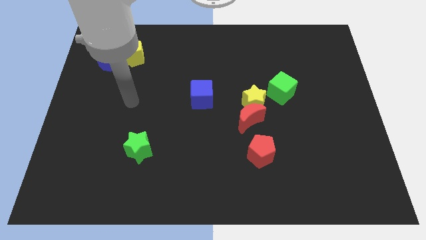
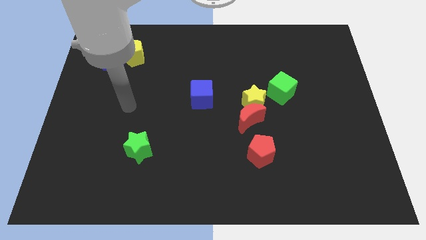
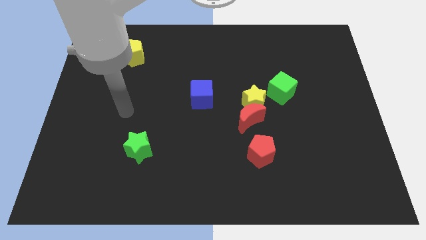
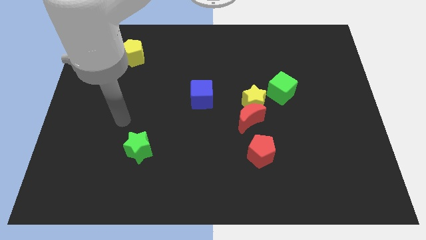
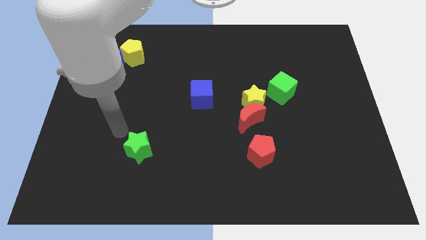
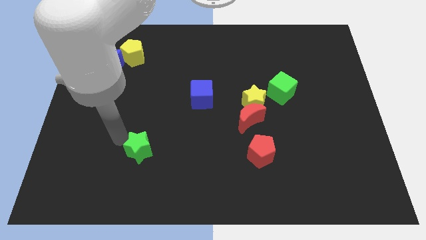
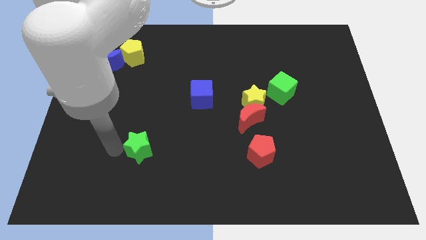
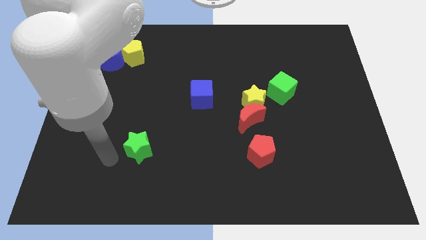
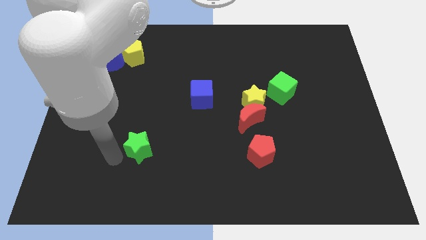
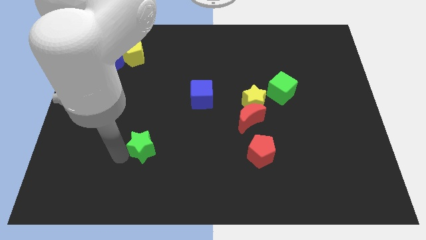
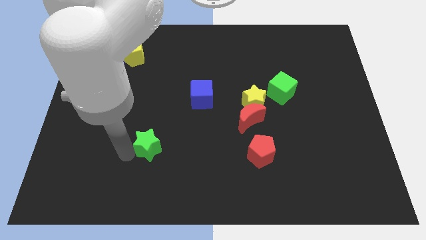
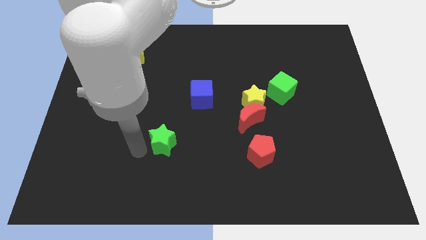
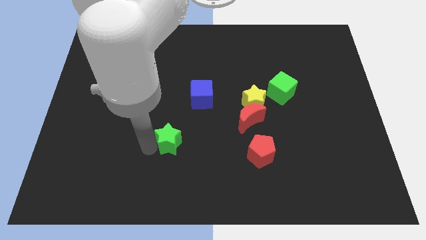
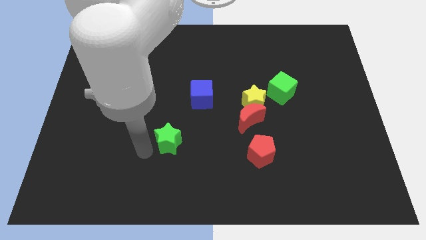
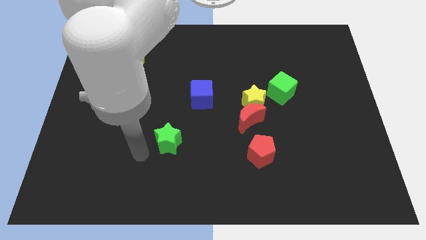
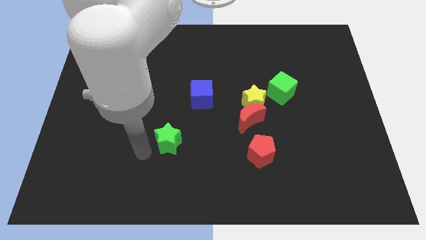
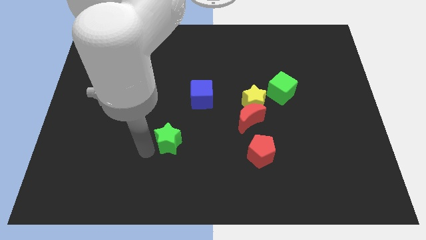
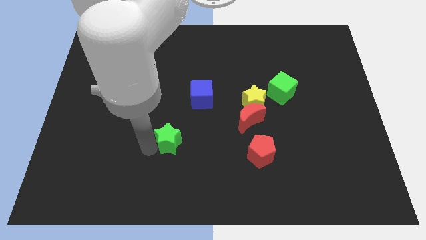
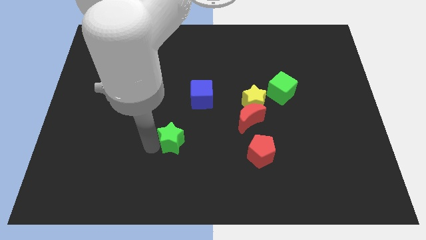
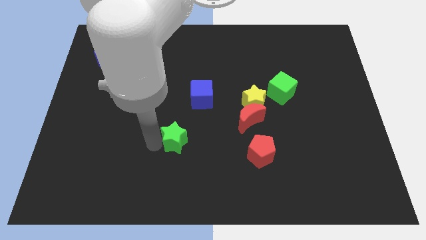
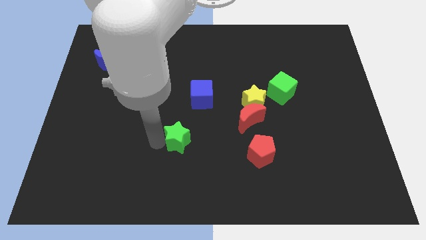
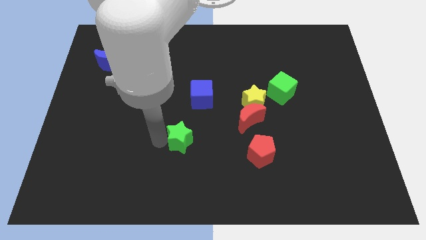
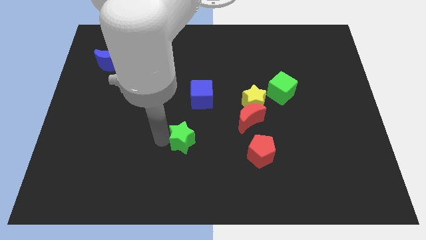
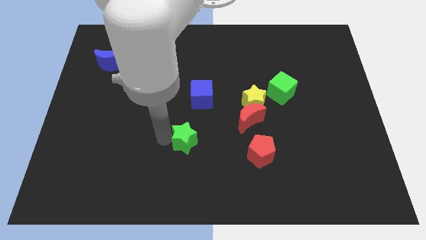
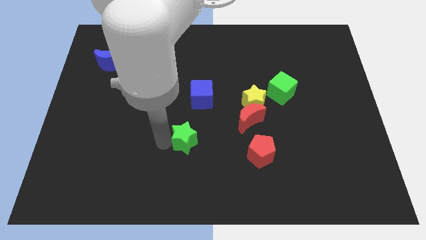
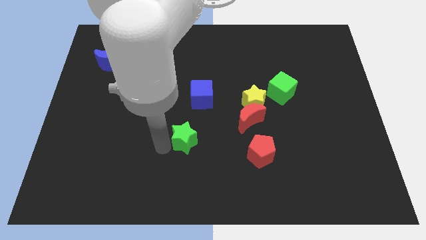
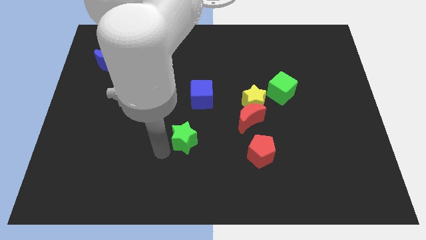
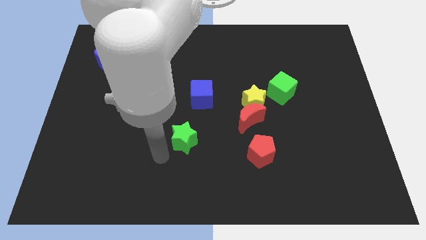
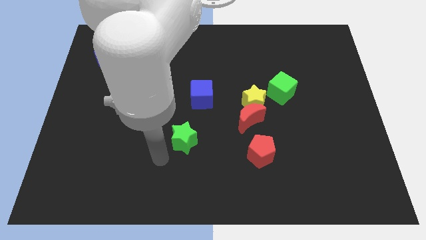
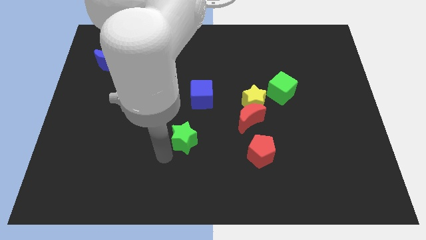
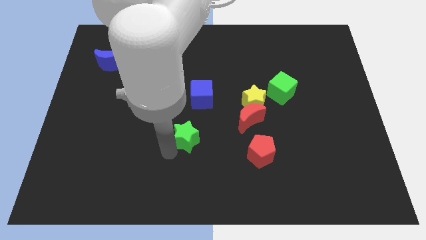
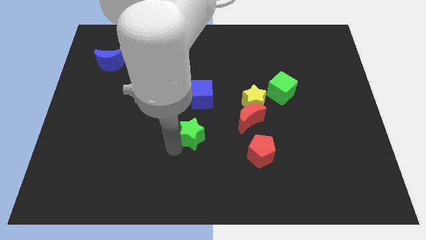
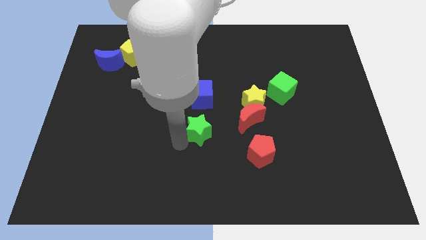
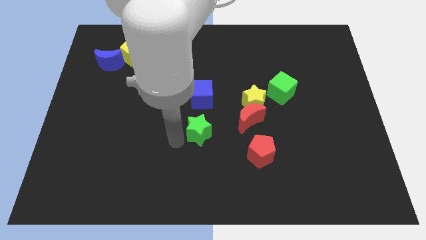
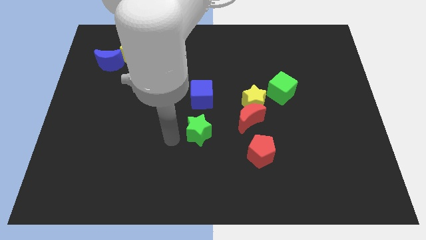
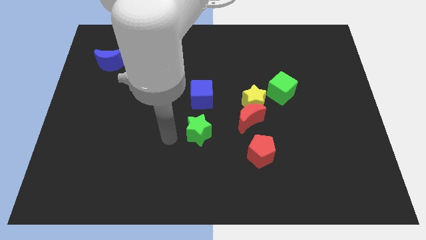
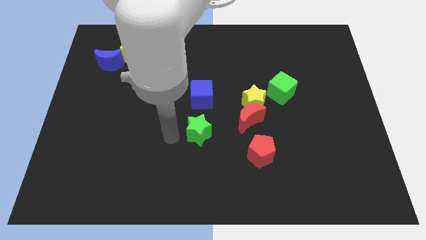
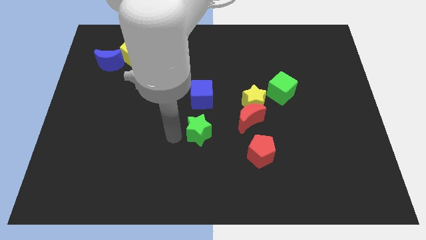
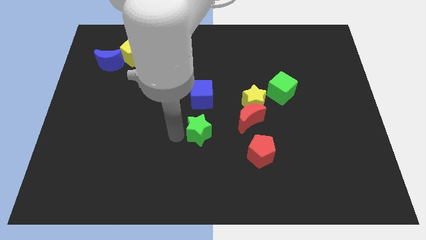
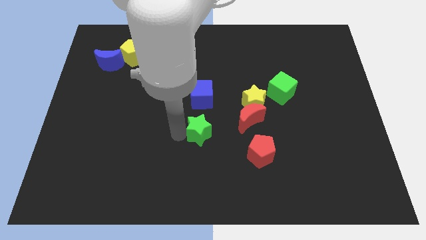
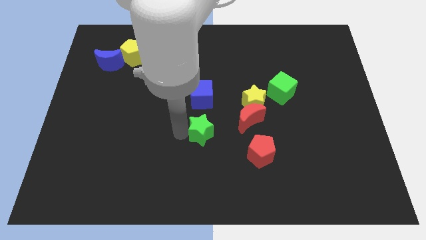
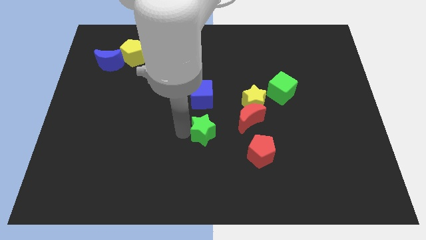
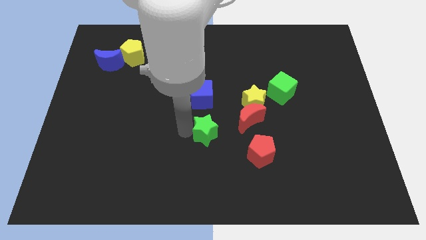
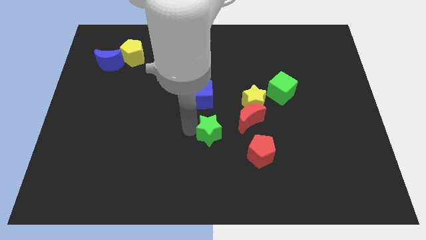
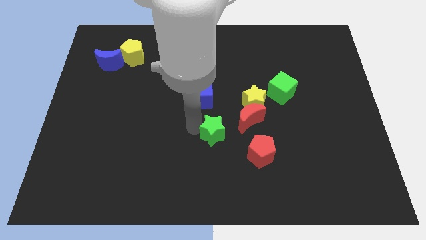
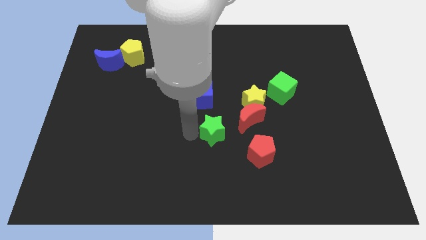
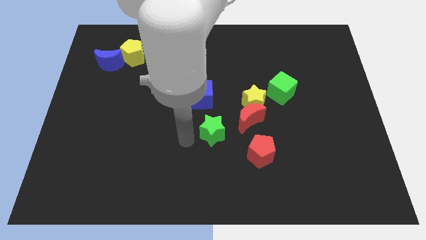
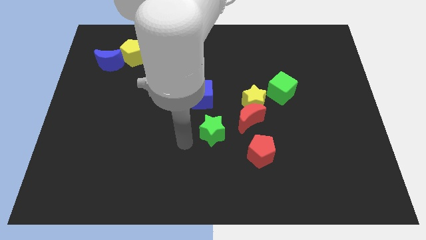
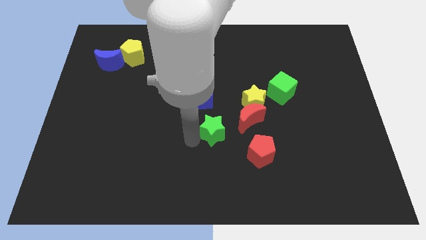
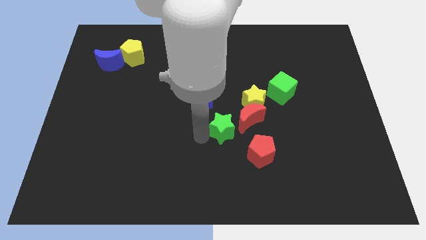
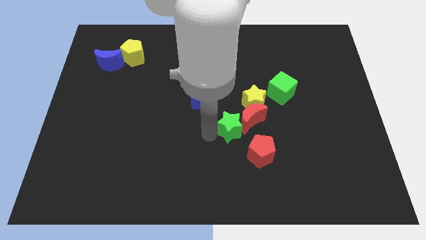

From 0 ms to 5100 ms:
slide the green star close to the red moon

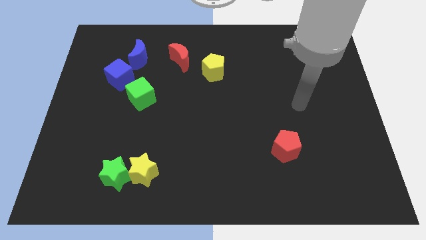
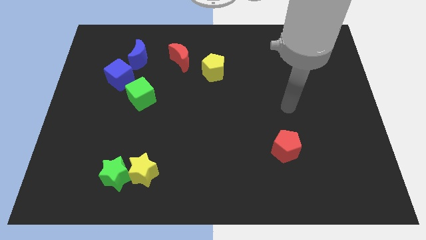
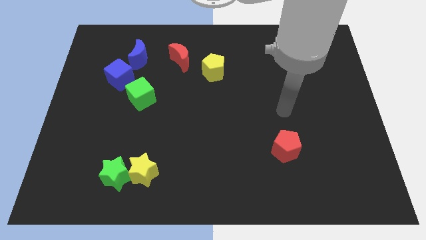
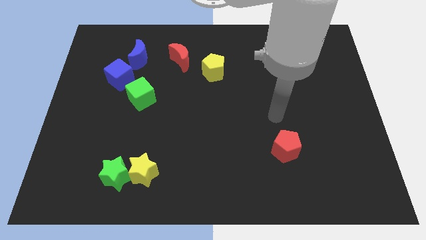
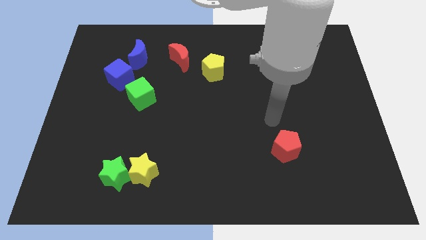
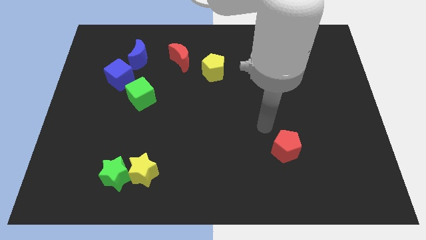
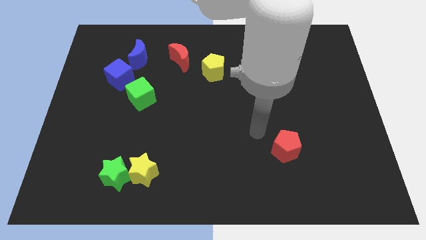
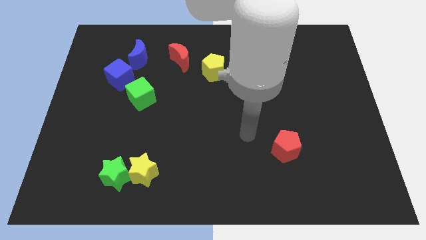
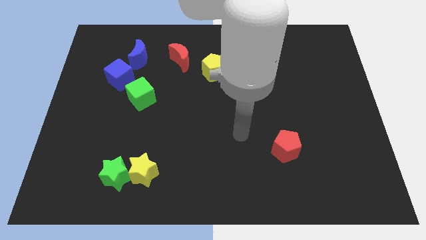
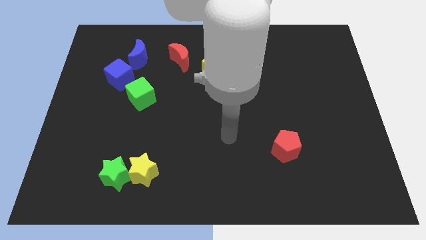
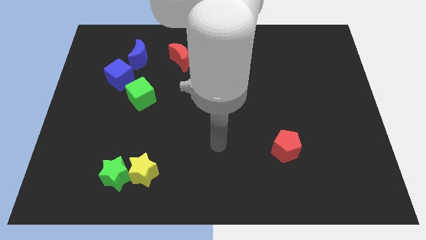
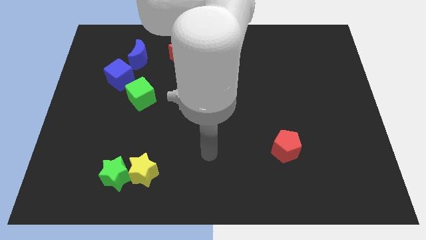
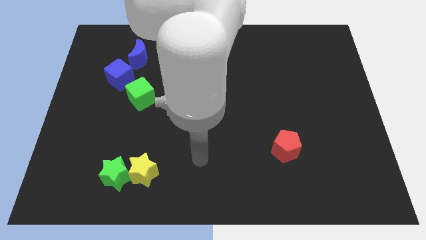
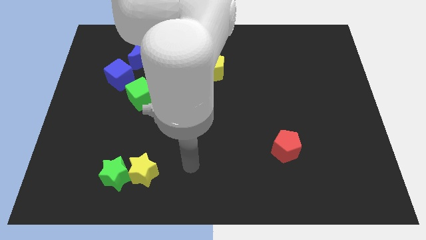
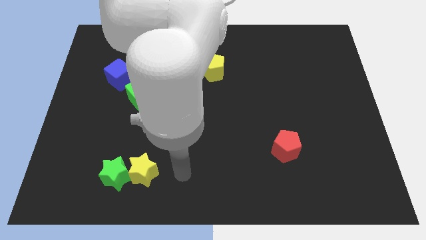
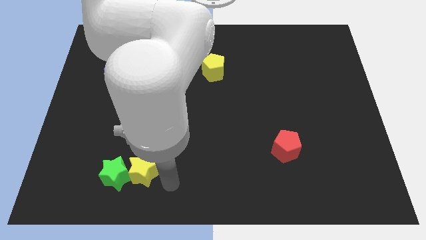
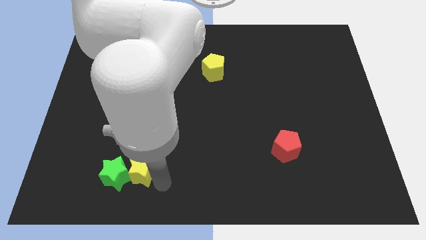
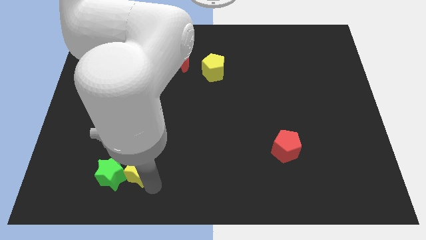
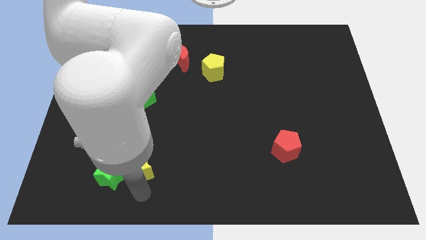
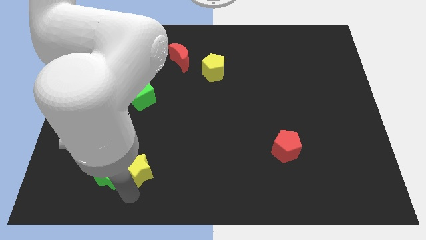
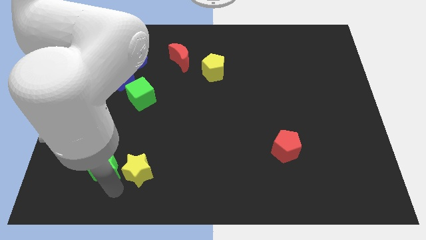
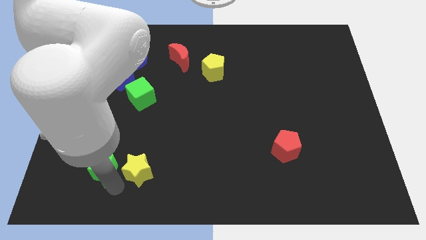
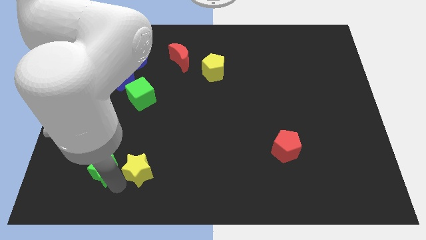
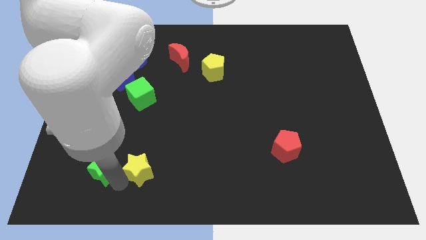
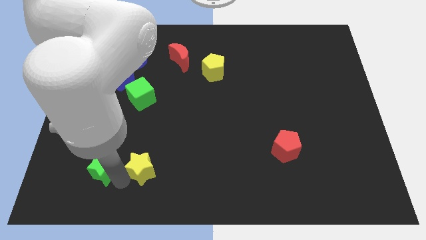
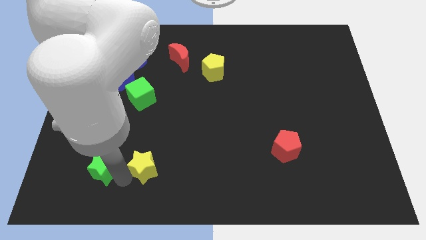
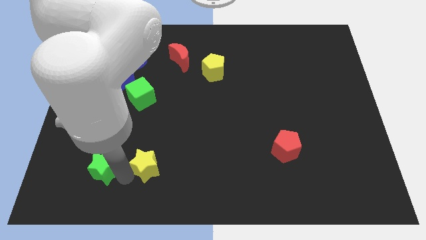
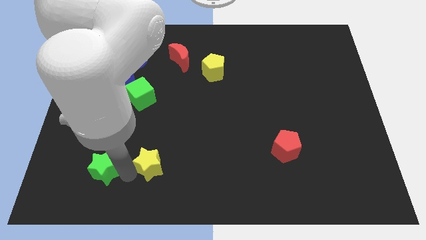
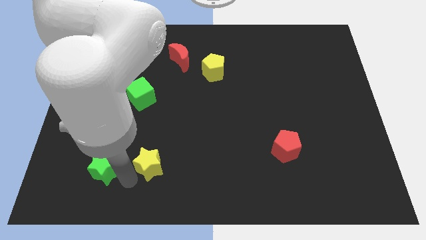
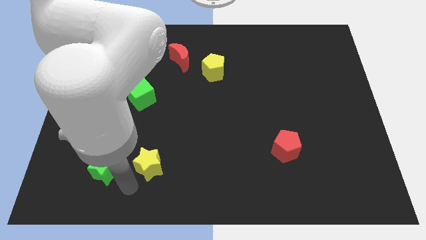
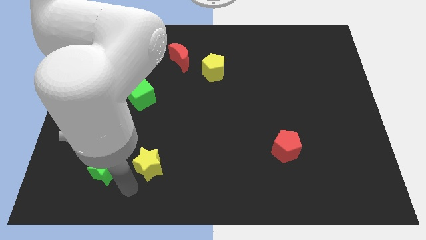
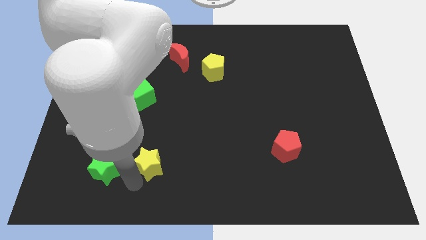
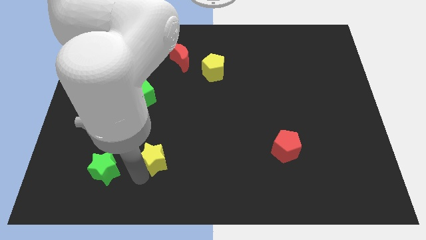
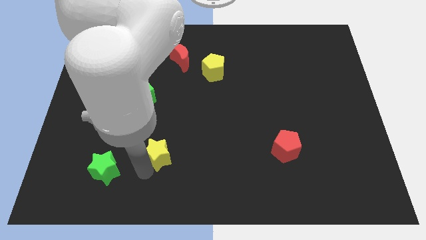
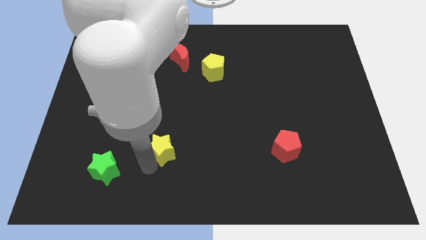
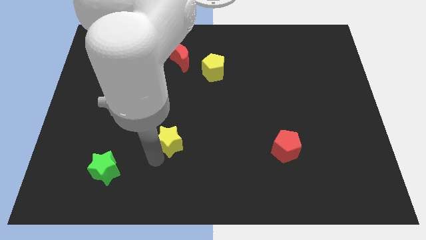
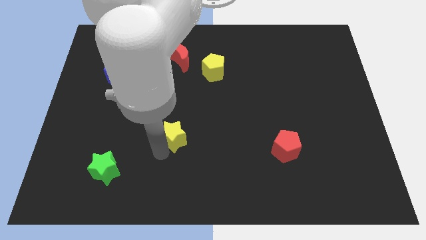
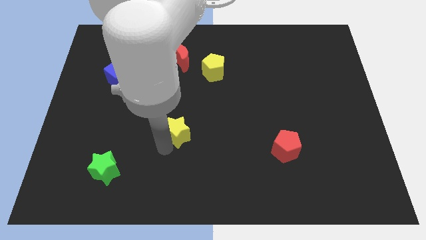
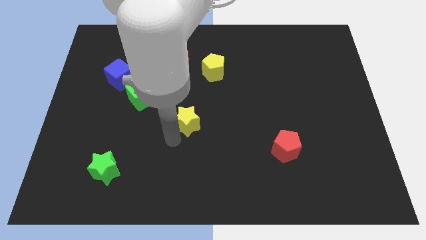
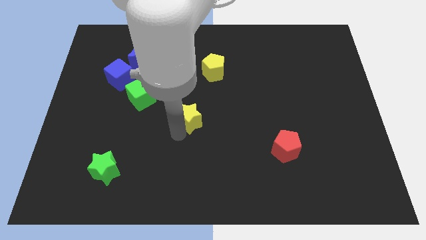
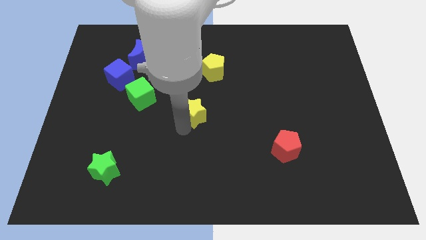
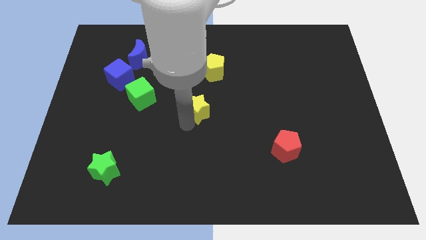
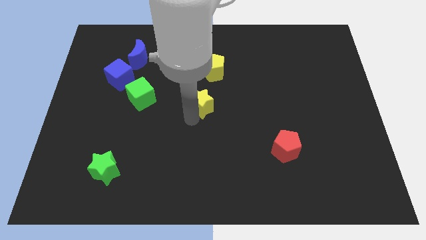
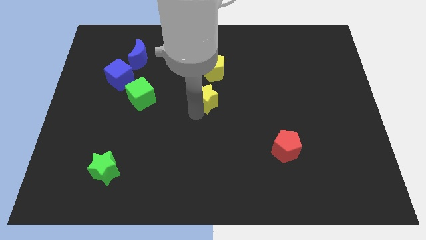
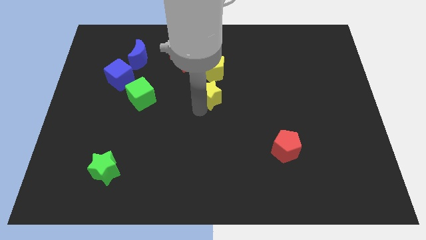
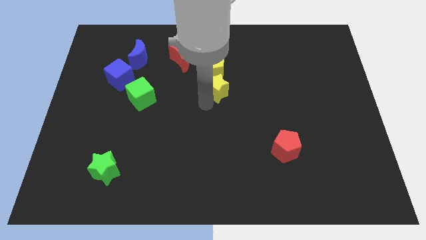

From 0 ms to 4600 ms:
push the yellow star to the yellow pentagon
